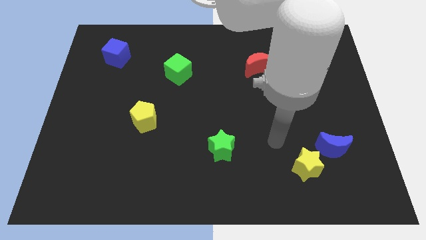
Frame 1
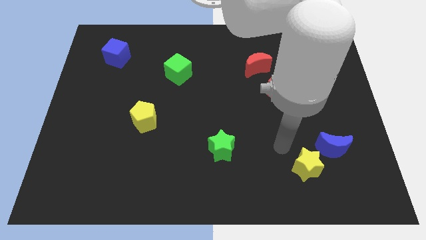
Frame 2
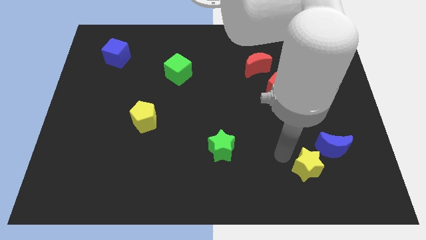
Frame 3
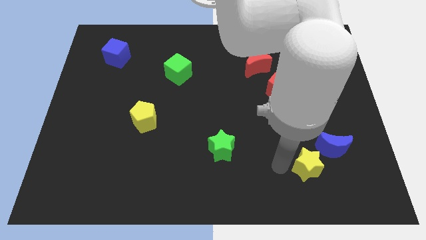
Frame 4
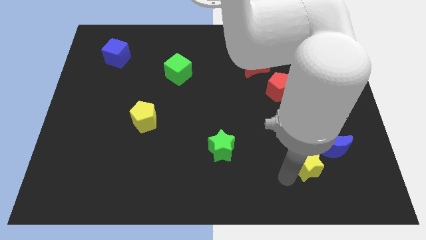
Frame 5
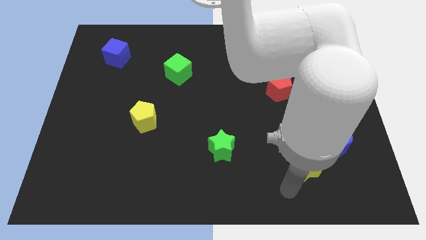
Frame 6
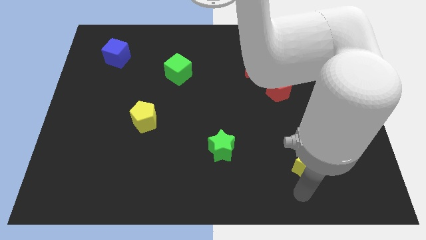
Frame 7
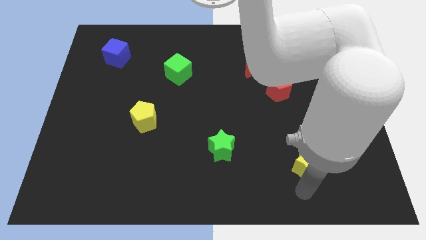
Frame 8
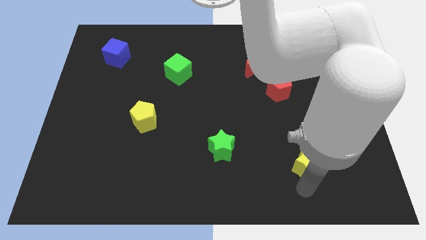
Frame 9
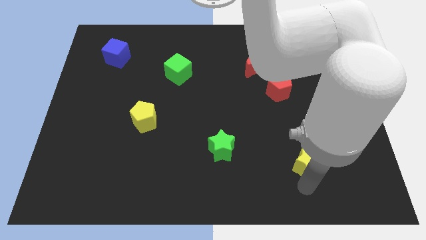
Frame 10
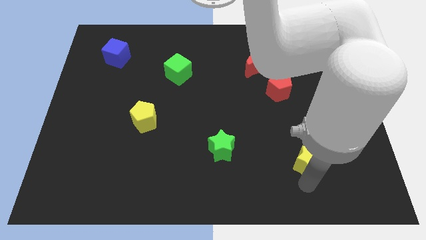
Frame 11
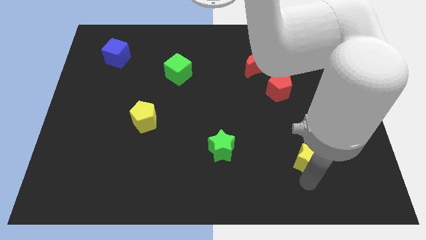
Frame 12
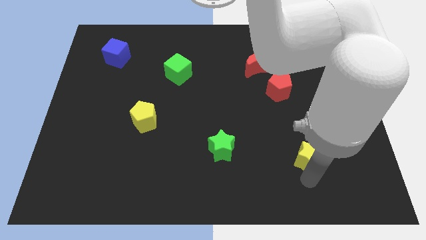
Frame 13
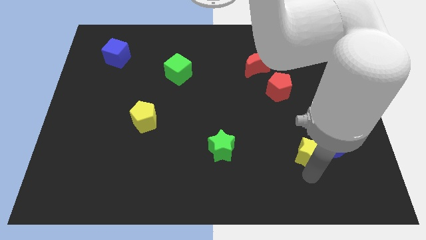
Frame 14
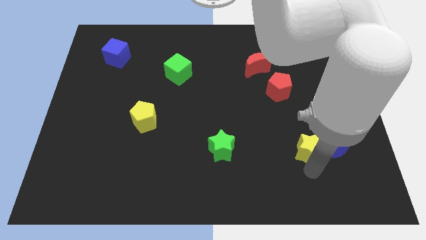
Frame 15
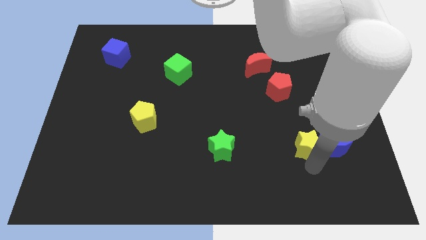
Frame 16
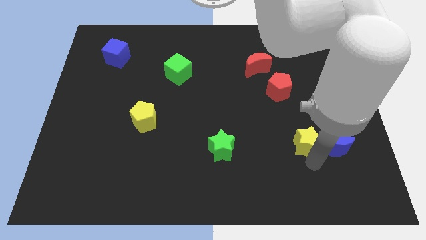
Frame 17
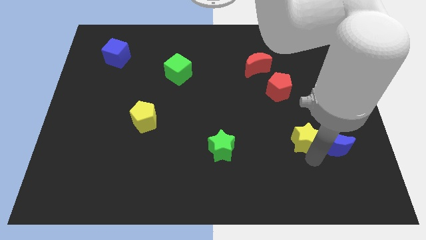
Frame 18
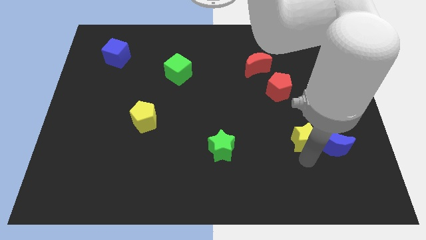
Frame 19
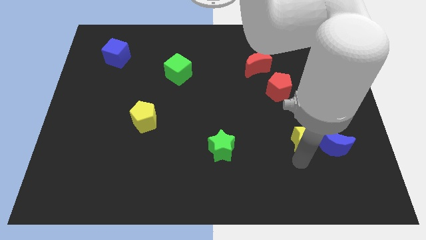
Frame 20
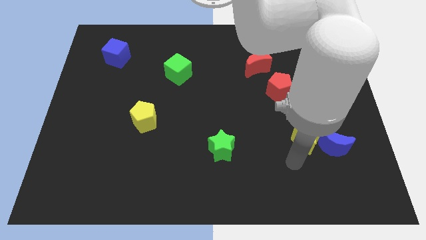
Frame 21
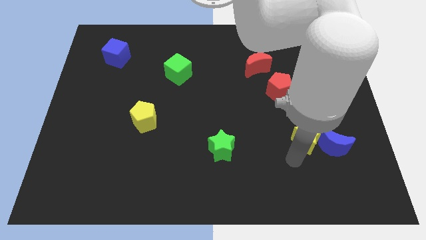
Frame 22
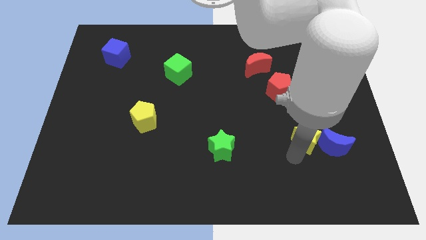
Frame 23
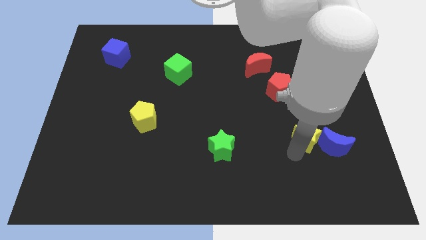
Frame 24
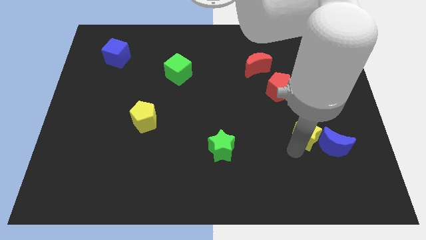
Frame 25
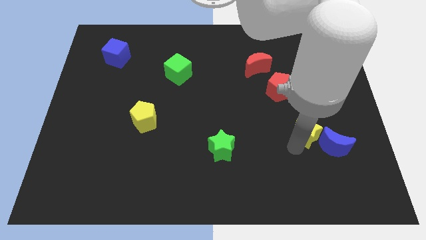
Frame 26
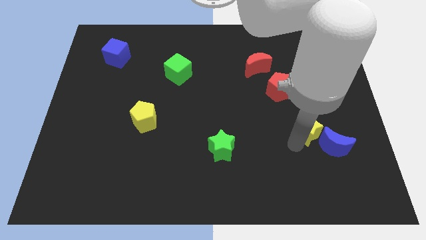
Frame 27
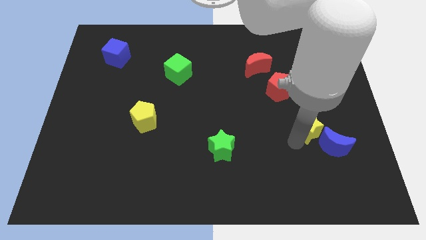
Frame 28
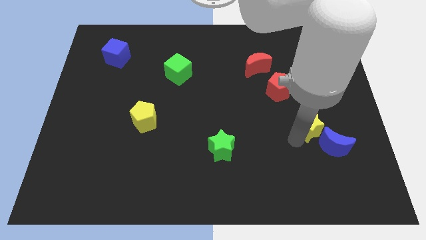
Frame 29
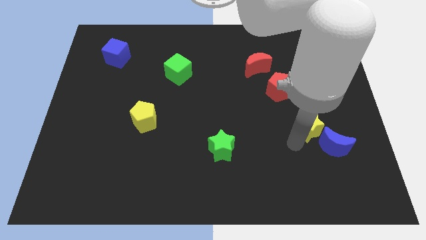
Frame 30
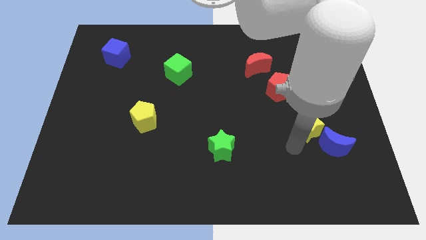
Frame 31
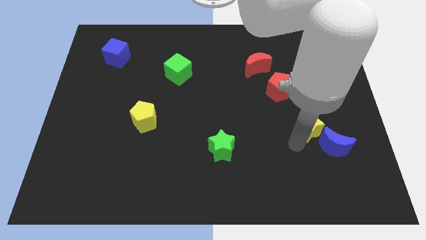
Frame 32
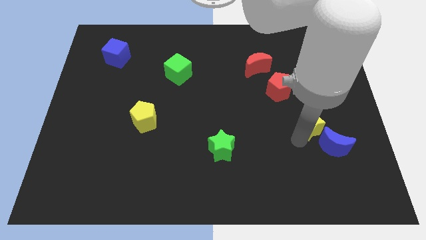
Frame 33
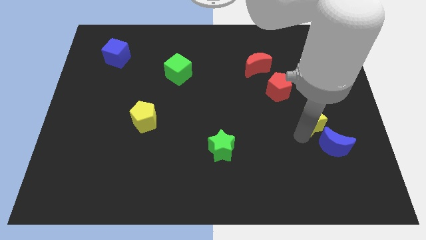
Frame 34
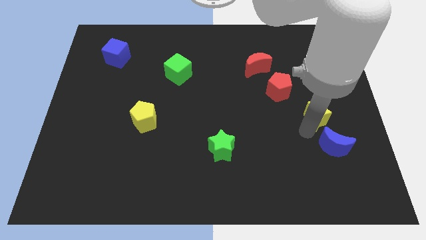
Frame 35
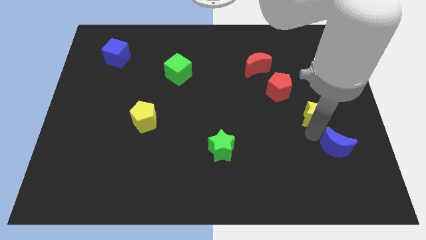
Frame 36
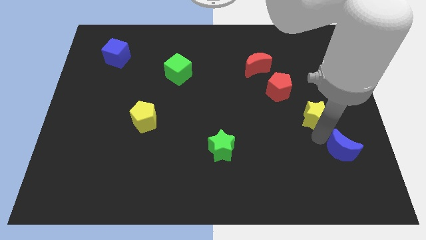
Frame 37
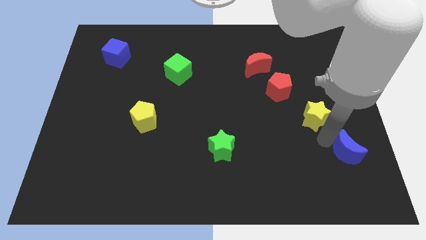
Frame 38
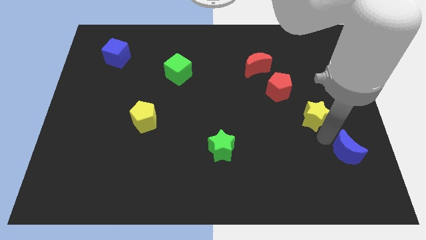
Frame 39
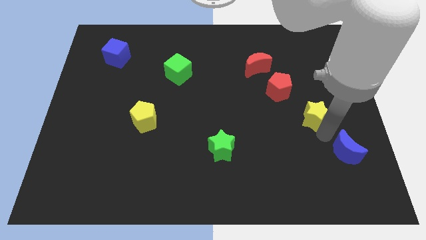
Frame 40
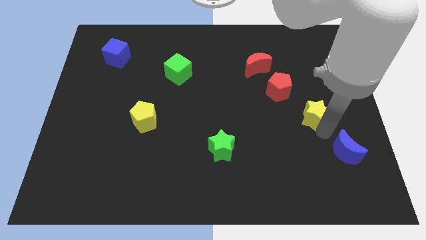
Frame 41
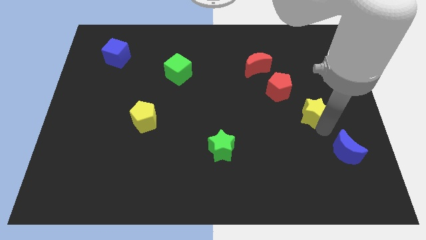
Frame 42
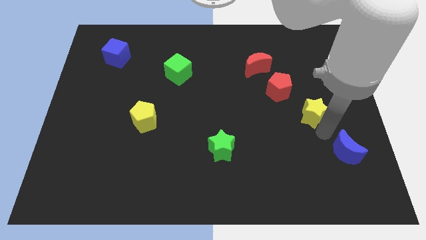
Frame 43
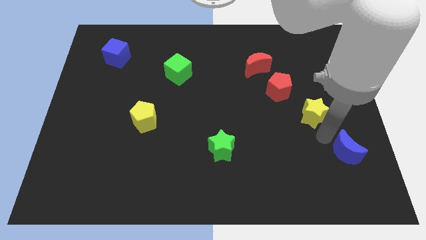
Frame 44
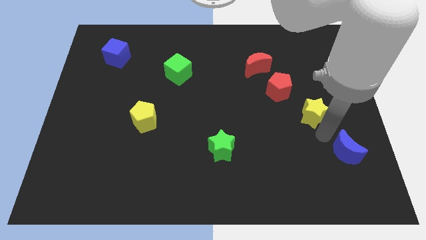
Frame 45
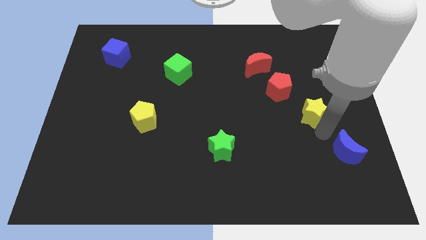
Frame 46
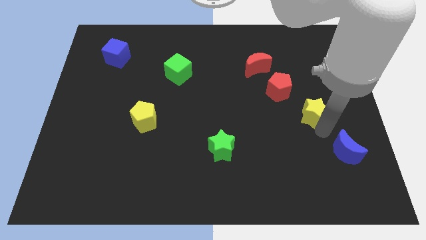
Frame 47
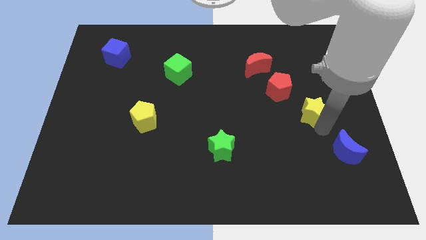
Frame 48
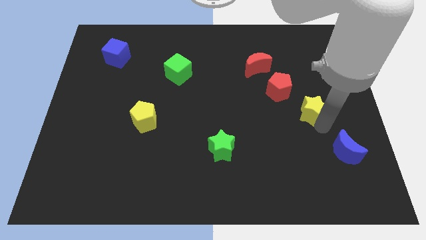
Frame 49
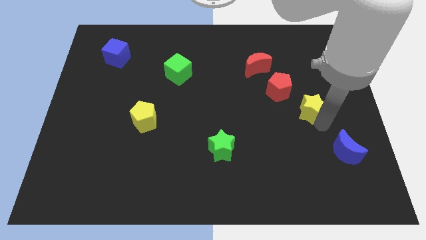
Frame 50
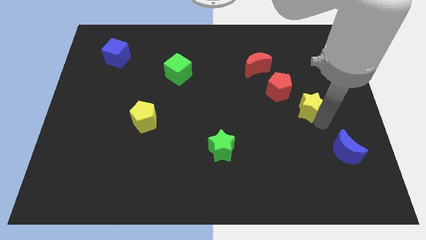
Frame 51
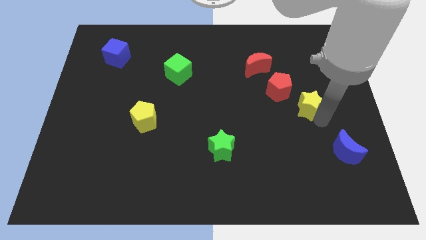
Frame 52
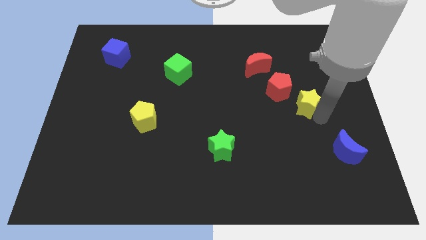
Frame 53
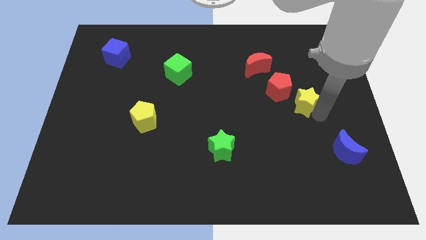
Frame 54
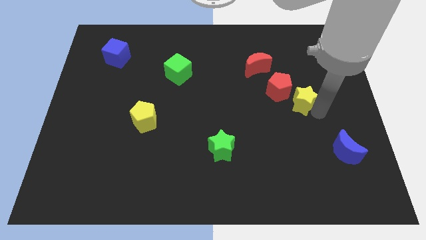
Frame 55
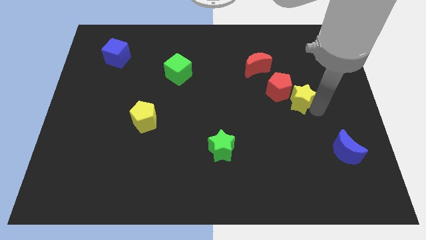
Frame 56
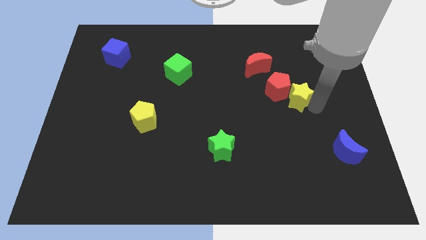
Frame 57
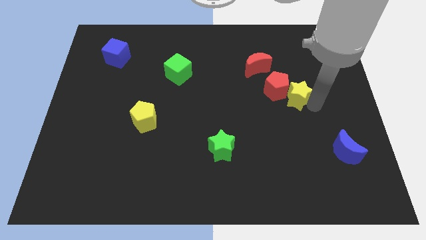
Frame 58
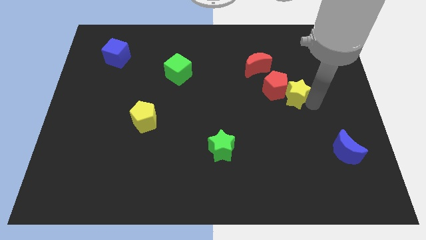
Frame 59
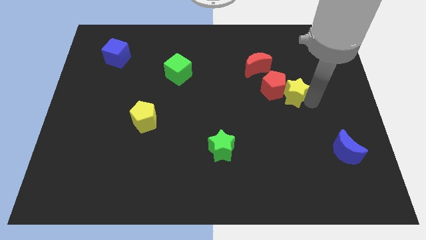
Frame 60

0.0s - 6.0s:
slide the yellow star upwards

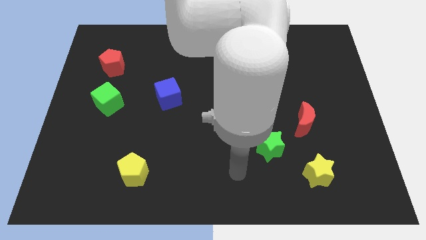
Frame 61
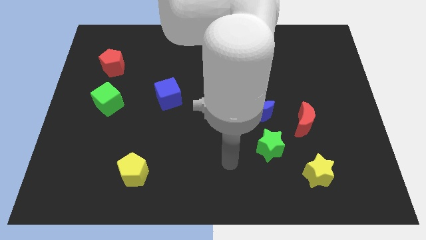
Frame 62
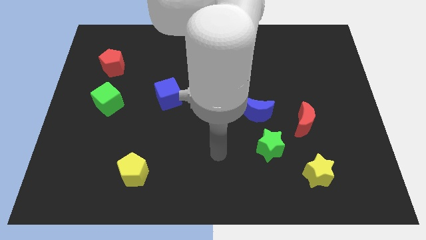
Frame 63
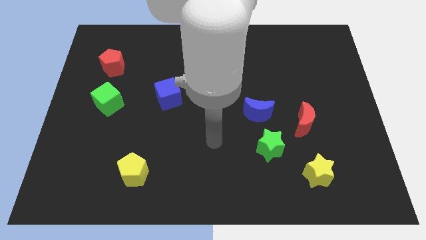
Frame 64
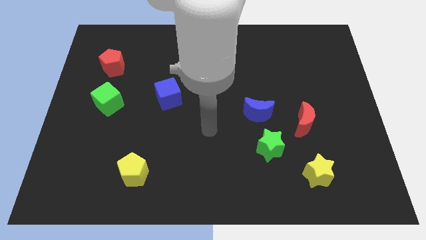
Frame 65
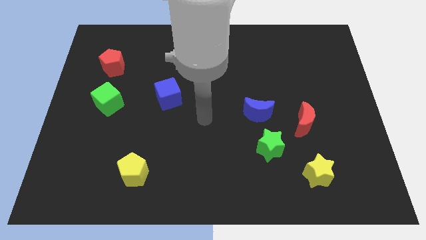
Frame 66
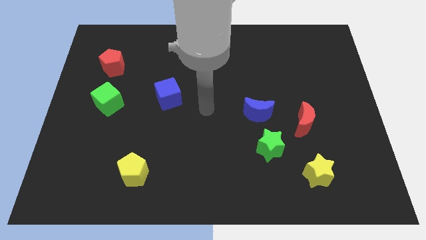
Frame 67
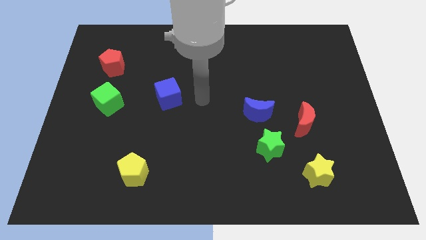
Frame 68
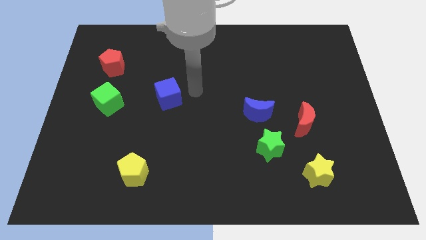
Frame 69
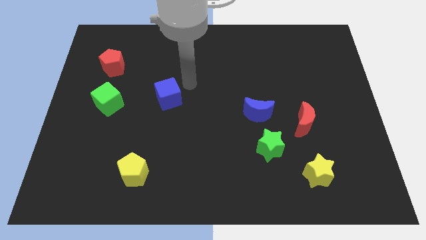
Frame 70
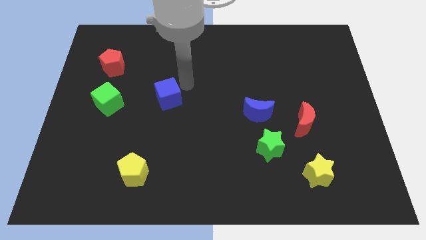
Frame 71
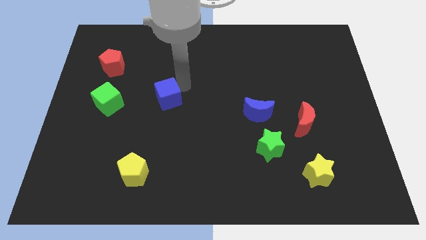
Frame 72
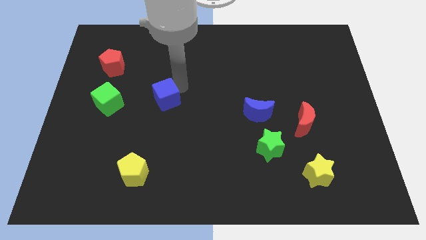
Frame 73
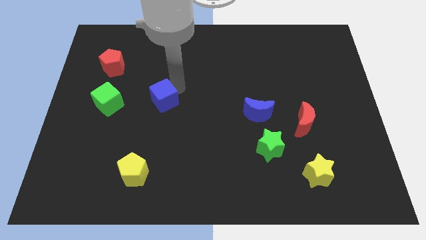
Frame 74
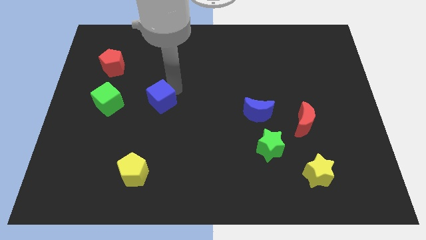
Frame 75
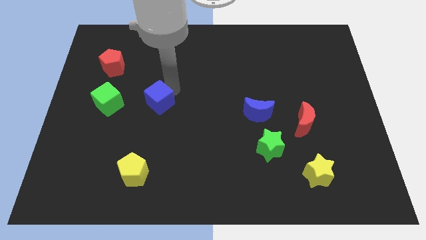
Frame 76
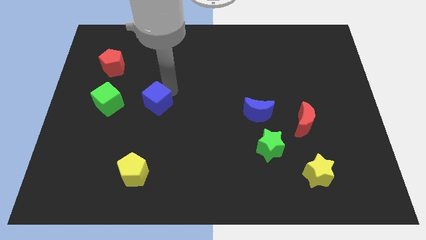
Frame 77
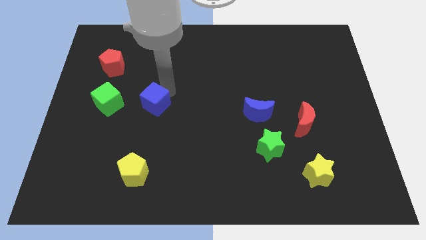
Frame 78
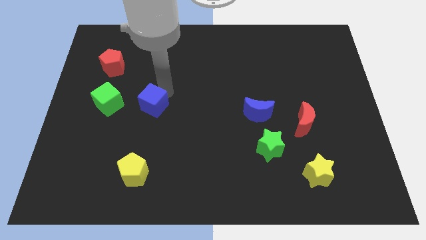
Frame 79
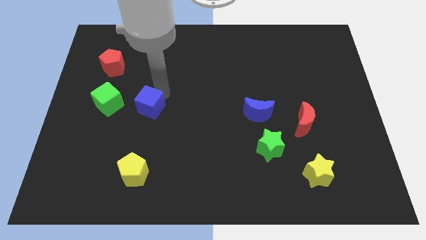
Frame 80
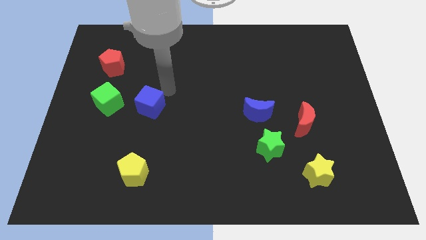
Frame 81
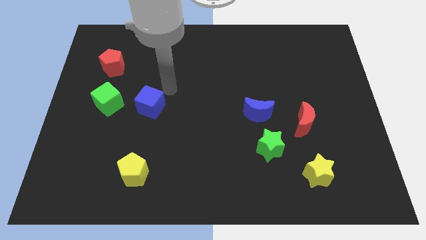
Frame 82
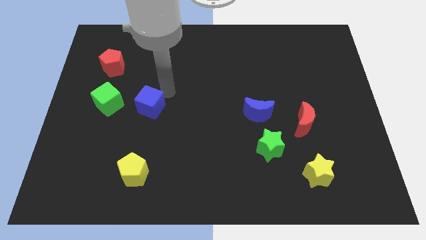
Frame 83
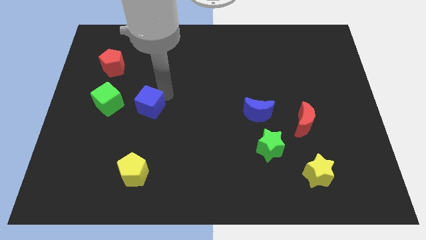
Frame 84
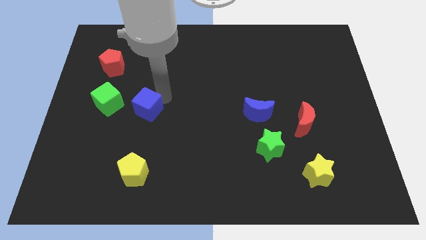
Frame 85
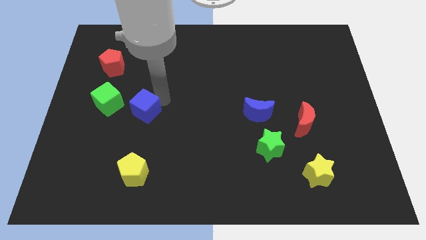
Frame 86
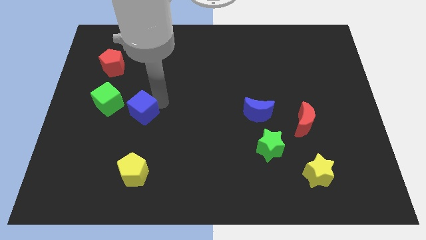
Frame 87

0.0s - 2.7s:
slightly push the blue cube down and left

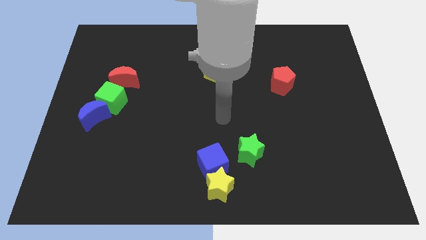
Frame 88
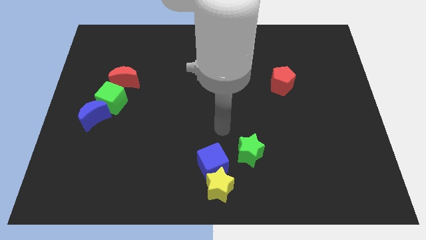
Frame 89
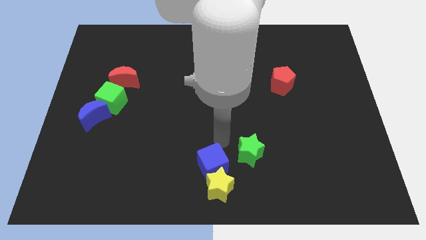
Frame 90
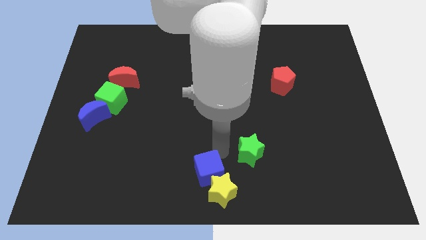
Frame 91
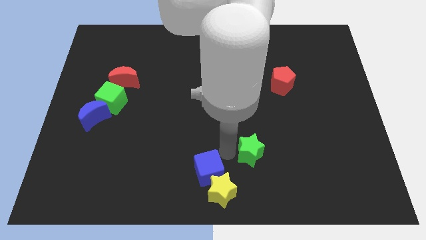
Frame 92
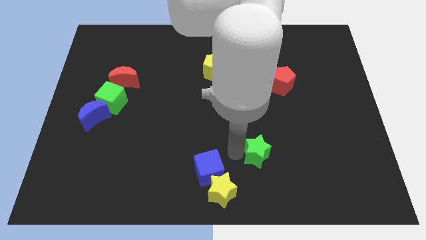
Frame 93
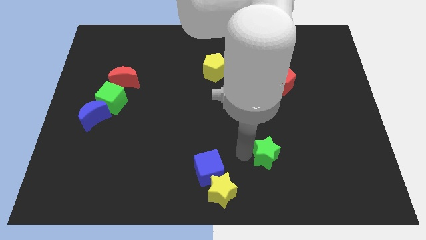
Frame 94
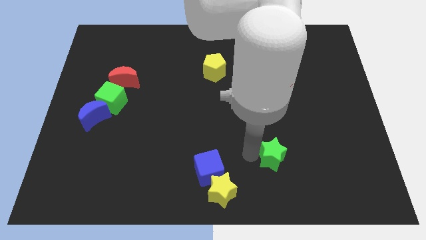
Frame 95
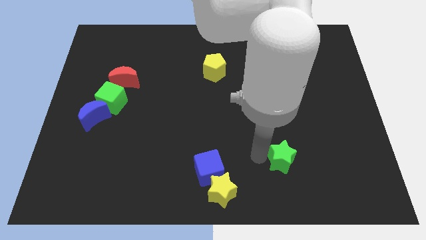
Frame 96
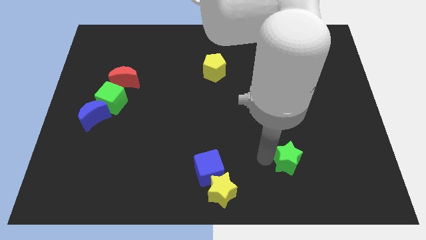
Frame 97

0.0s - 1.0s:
push the green star a little to the right
